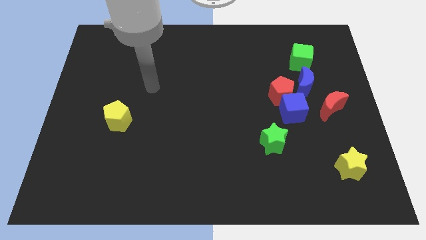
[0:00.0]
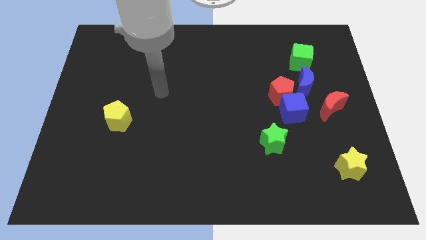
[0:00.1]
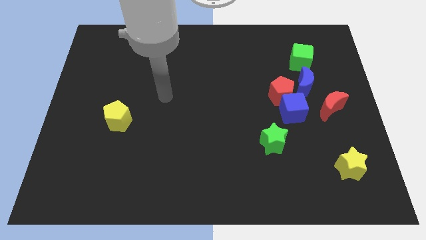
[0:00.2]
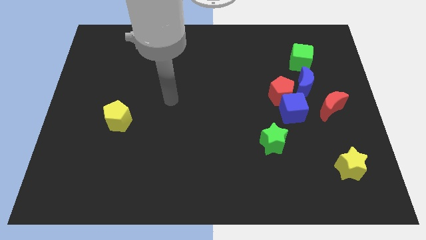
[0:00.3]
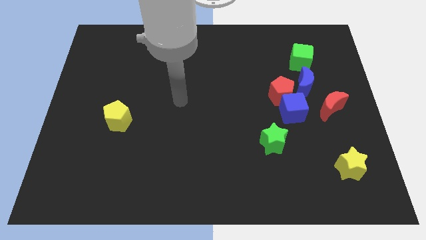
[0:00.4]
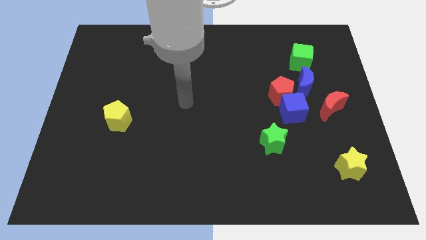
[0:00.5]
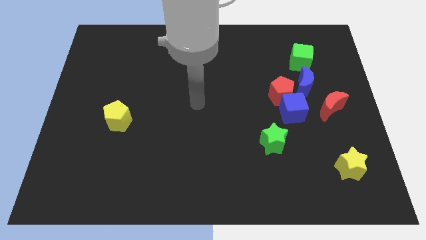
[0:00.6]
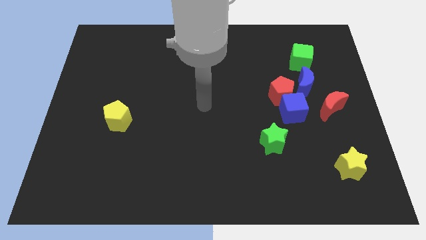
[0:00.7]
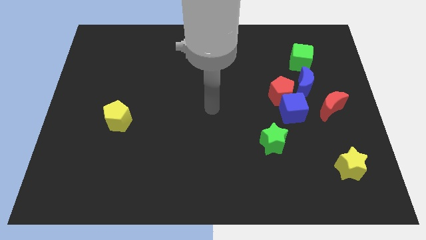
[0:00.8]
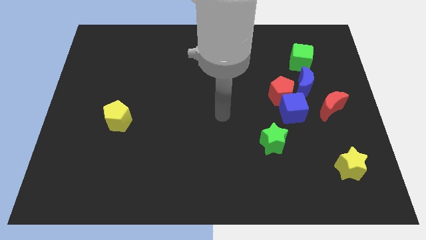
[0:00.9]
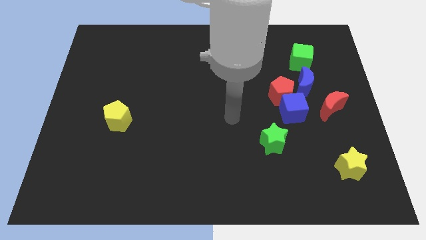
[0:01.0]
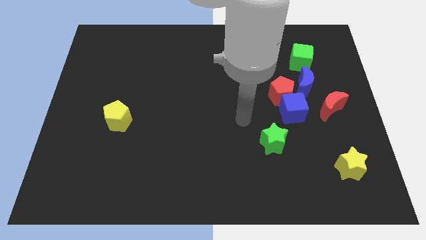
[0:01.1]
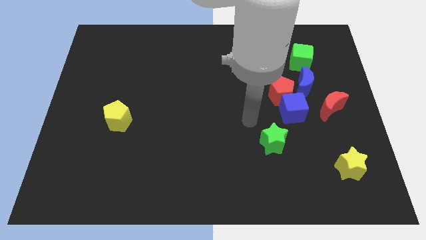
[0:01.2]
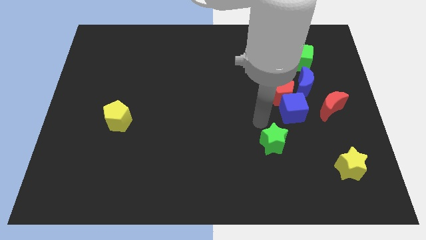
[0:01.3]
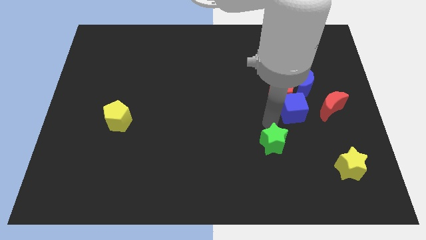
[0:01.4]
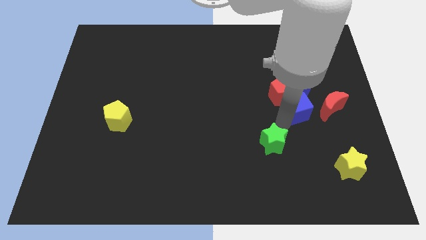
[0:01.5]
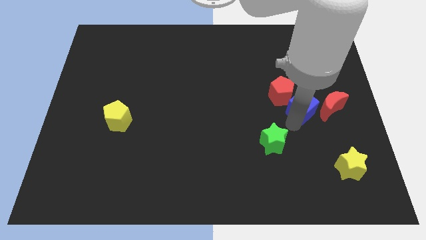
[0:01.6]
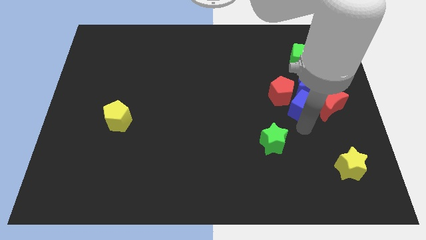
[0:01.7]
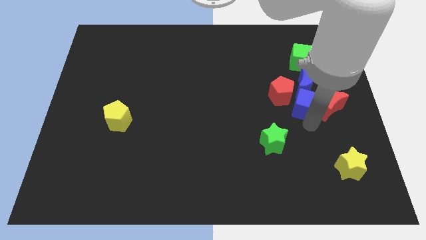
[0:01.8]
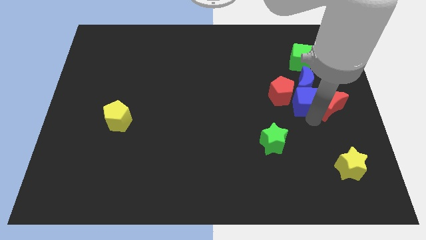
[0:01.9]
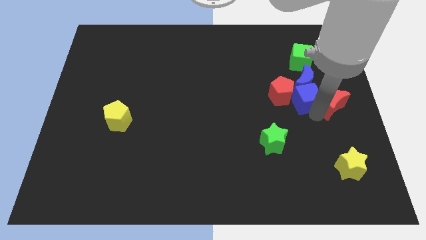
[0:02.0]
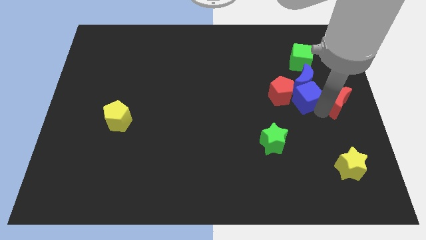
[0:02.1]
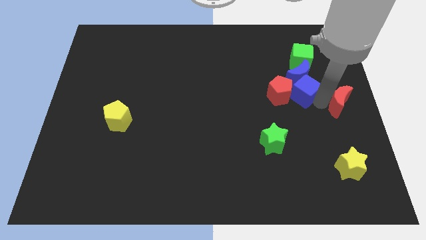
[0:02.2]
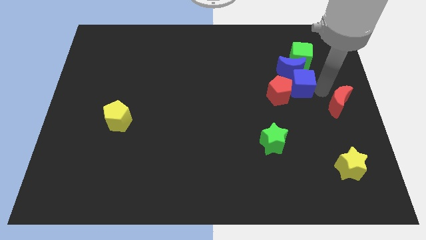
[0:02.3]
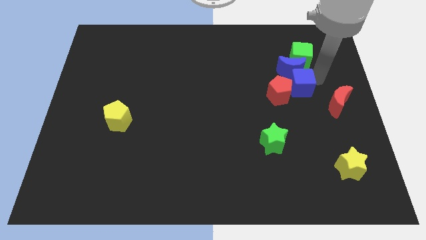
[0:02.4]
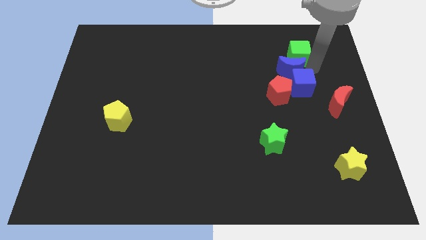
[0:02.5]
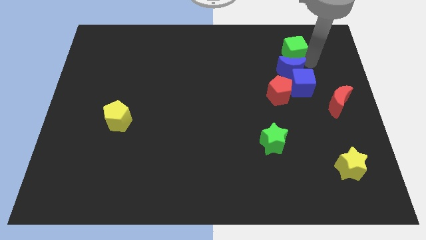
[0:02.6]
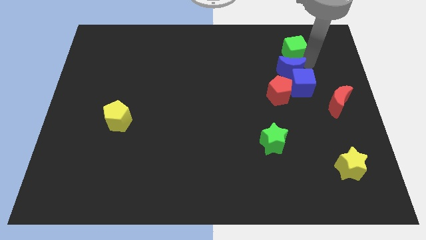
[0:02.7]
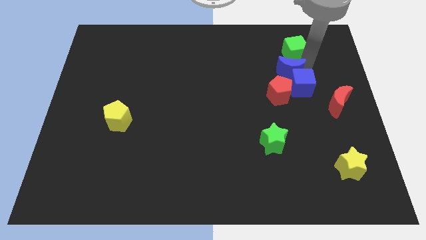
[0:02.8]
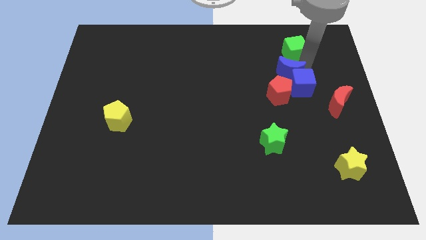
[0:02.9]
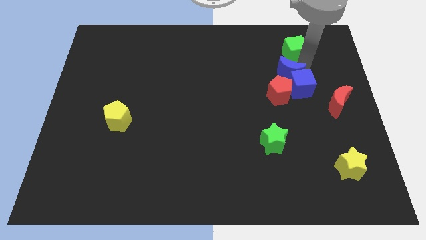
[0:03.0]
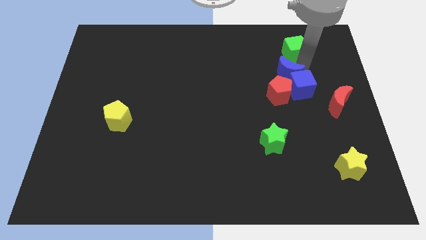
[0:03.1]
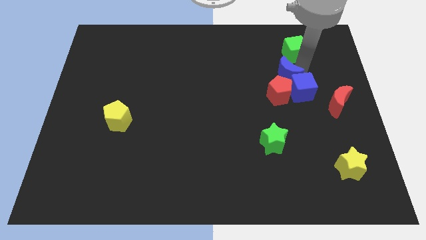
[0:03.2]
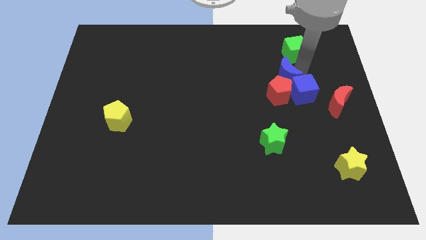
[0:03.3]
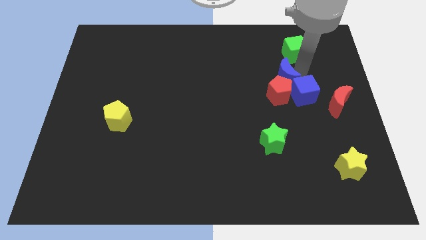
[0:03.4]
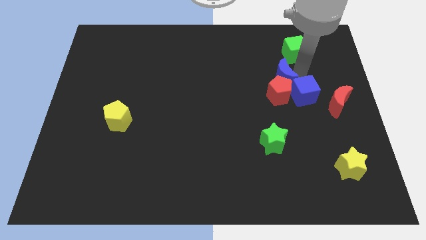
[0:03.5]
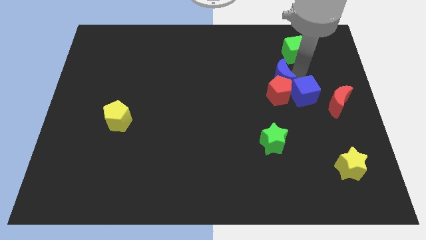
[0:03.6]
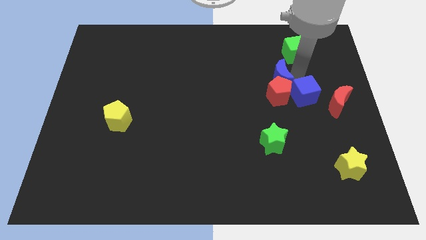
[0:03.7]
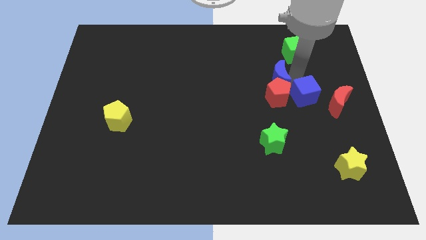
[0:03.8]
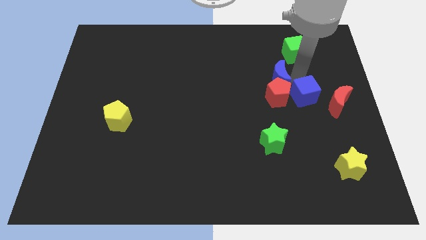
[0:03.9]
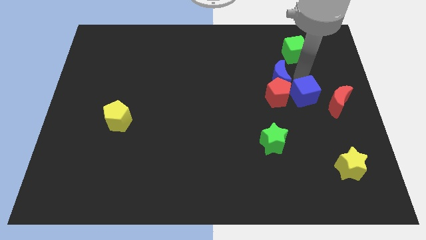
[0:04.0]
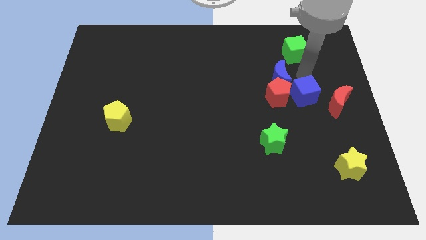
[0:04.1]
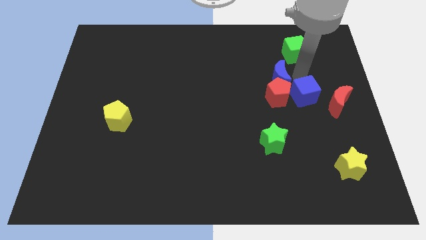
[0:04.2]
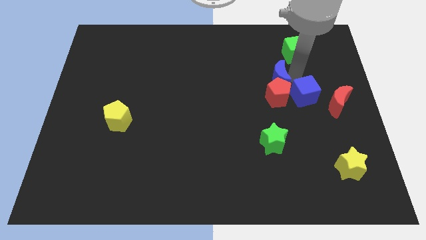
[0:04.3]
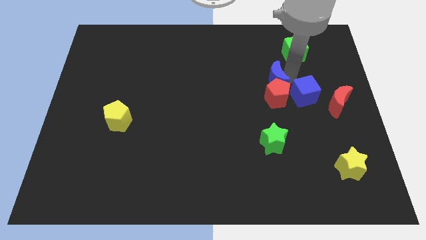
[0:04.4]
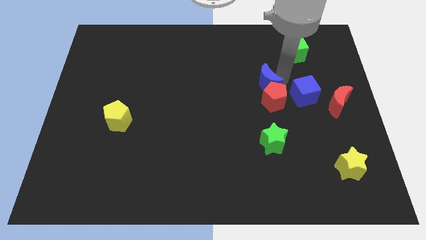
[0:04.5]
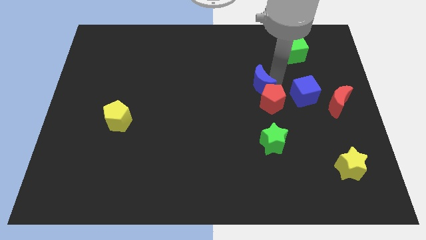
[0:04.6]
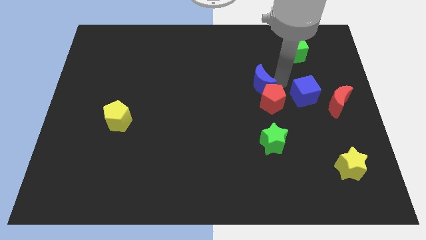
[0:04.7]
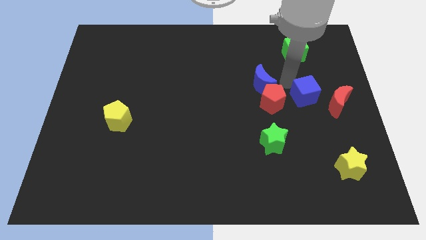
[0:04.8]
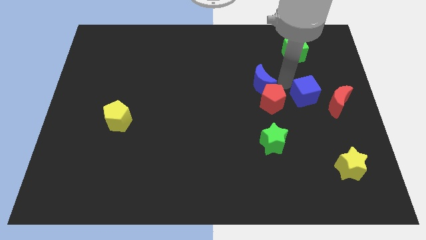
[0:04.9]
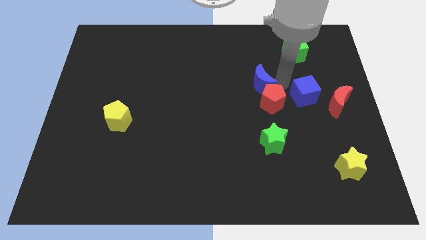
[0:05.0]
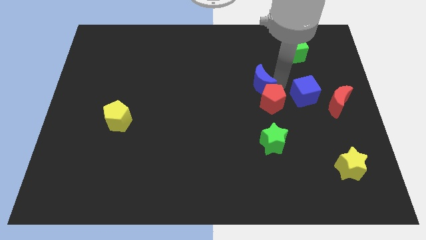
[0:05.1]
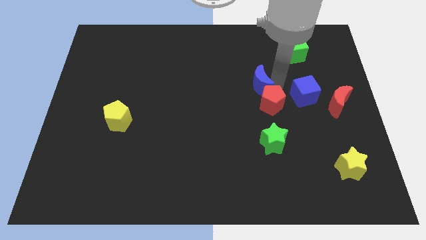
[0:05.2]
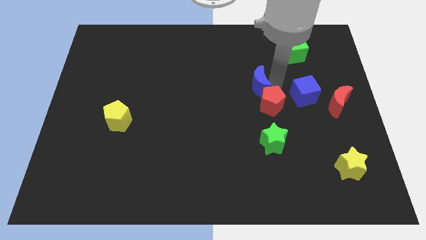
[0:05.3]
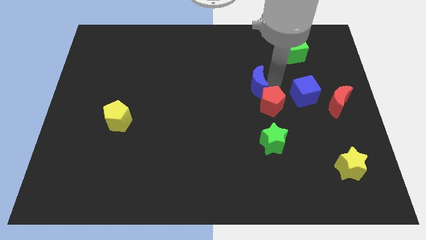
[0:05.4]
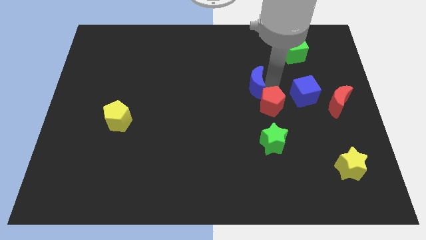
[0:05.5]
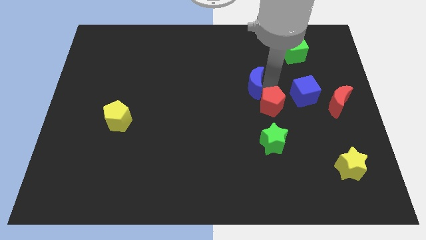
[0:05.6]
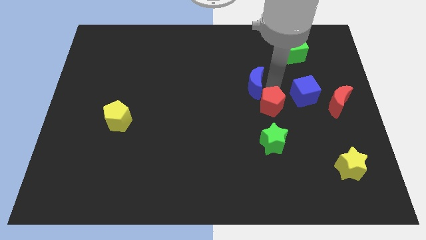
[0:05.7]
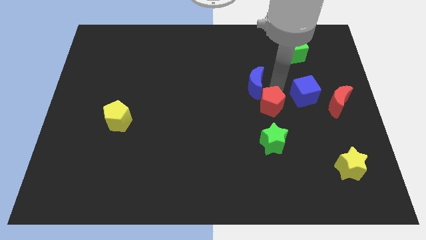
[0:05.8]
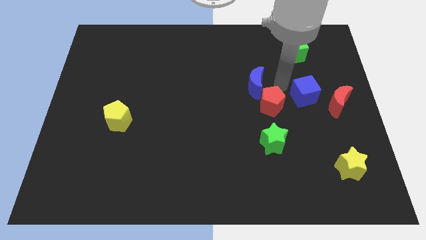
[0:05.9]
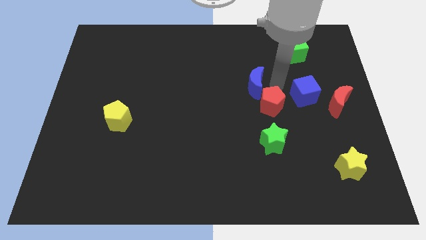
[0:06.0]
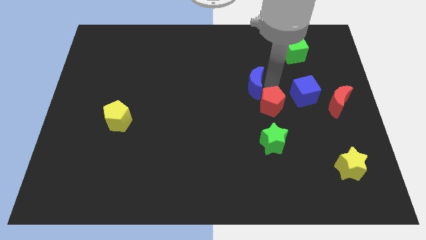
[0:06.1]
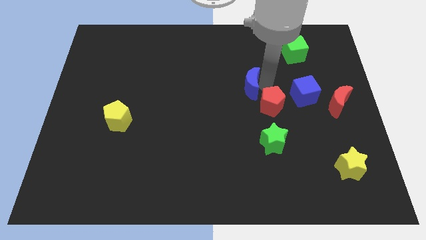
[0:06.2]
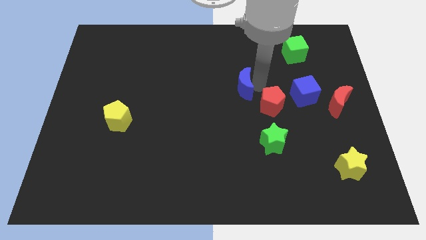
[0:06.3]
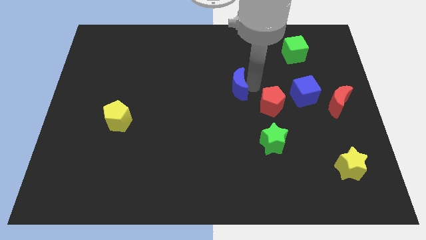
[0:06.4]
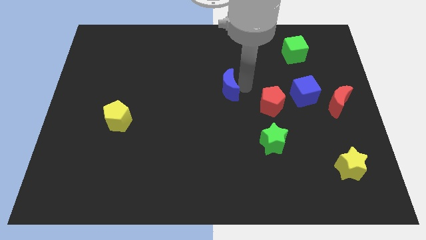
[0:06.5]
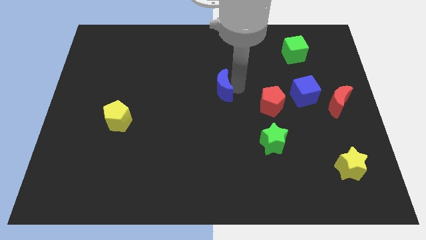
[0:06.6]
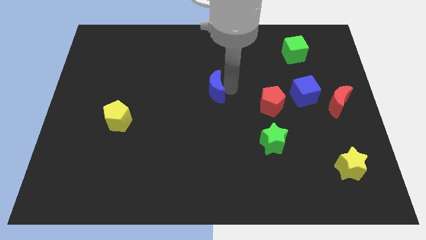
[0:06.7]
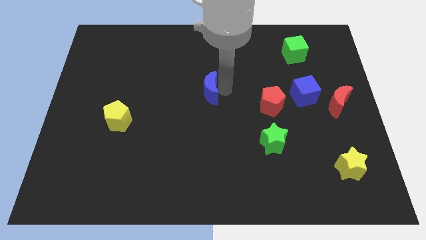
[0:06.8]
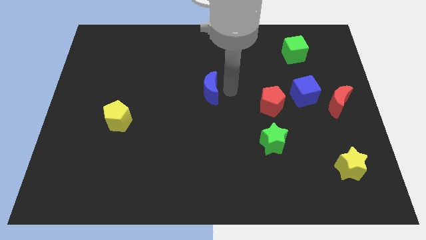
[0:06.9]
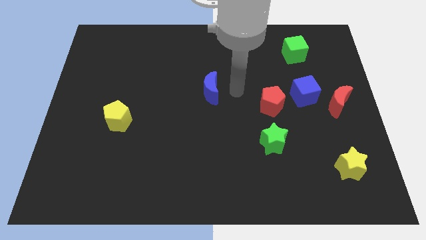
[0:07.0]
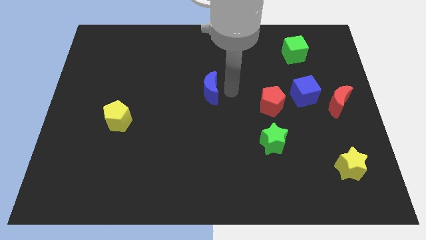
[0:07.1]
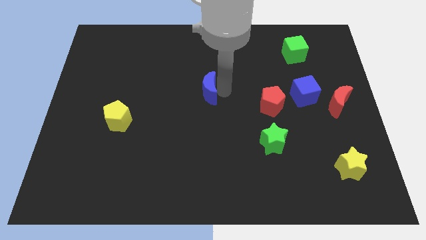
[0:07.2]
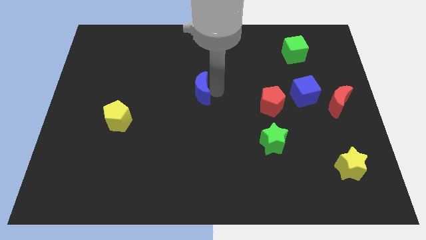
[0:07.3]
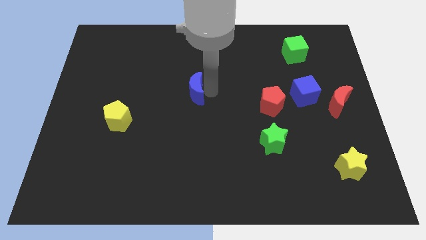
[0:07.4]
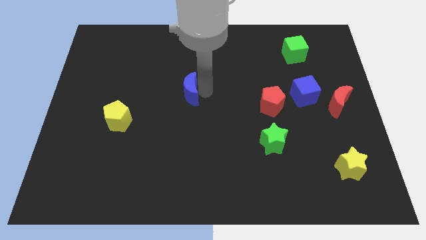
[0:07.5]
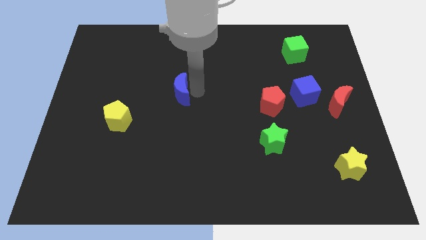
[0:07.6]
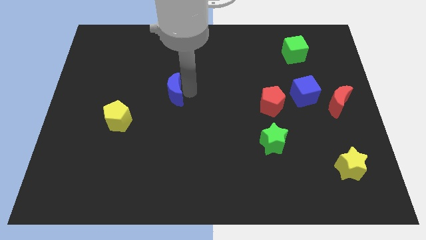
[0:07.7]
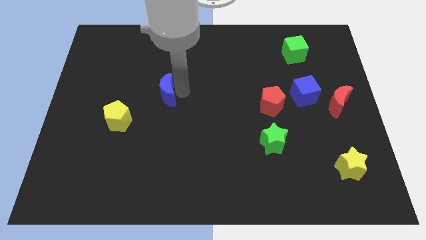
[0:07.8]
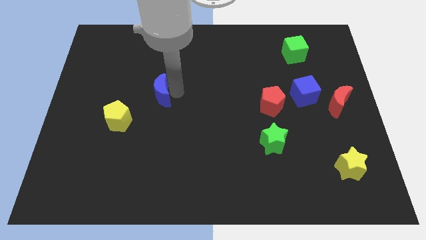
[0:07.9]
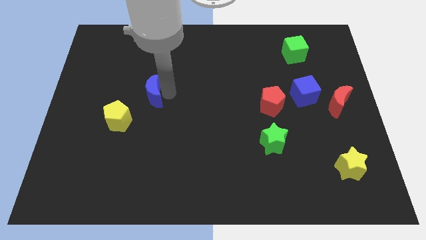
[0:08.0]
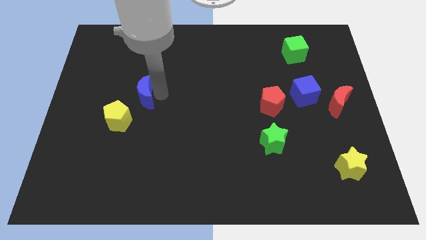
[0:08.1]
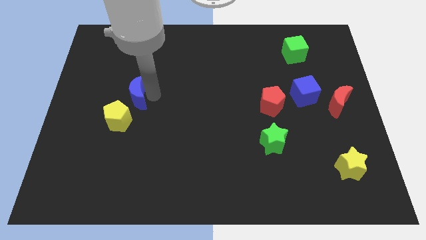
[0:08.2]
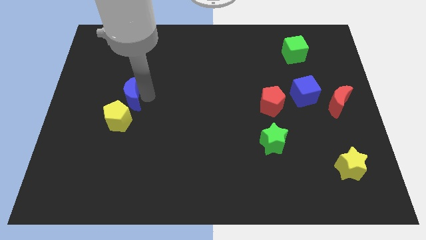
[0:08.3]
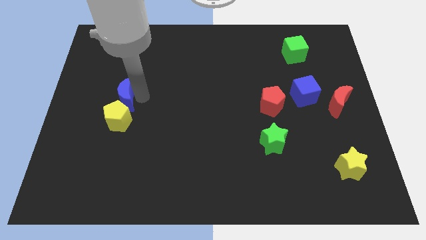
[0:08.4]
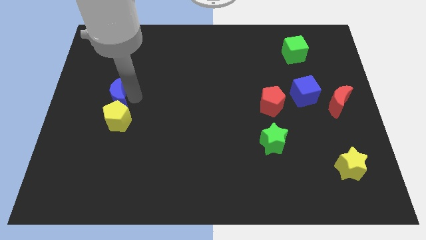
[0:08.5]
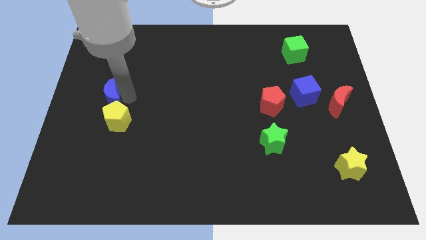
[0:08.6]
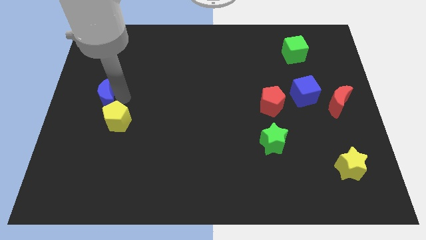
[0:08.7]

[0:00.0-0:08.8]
put the blue moon to the left side
